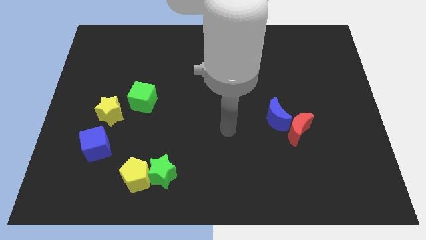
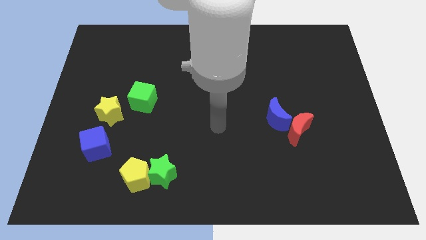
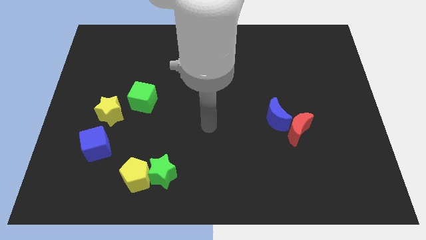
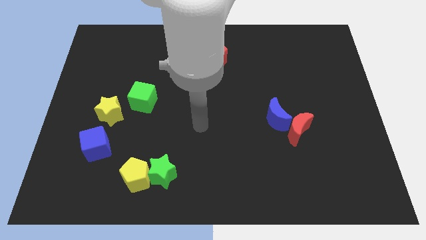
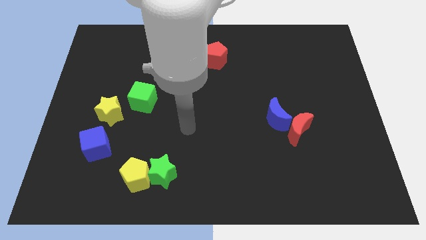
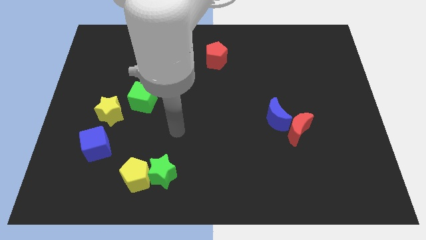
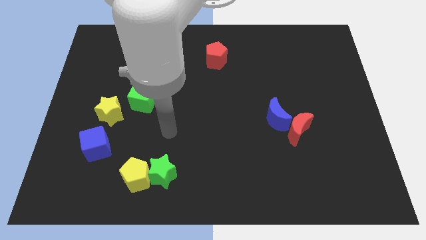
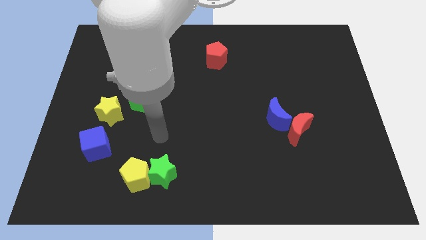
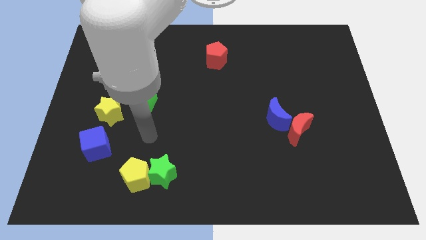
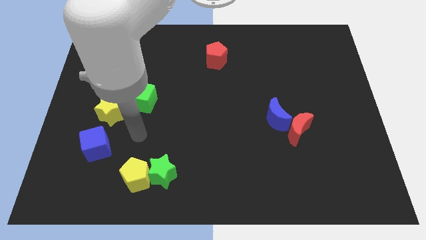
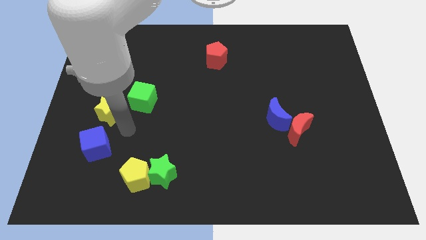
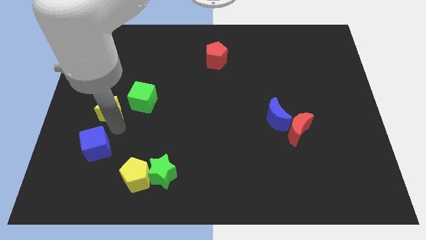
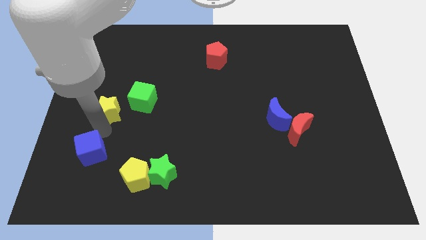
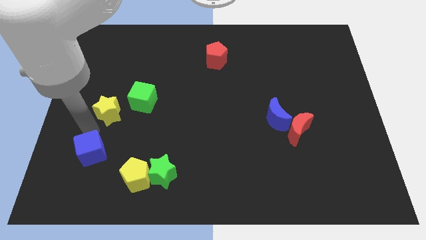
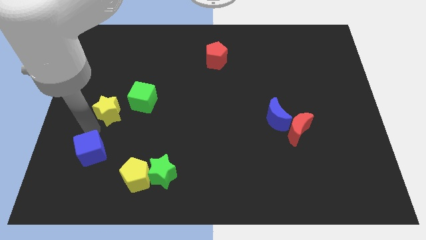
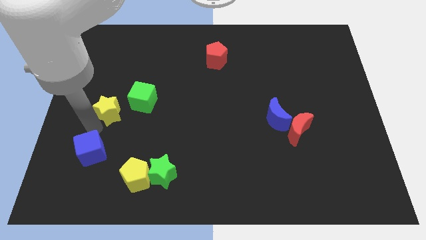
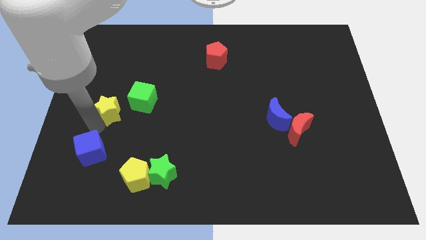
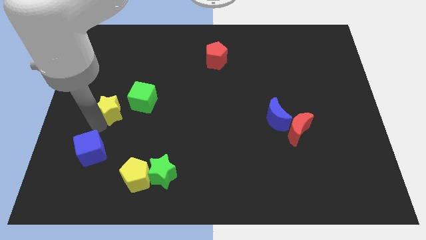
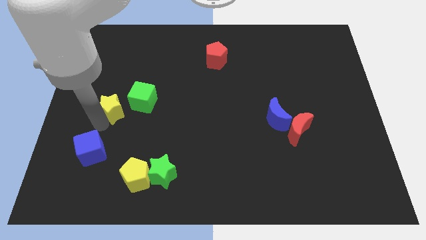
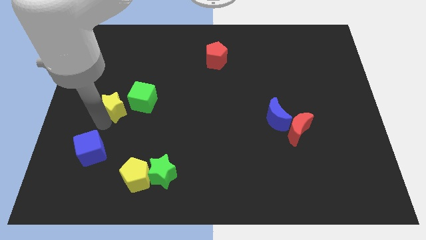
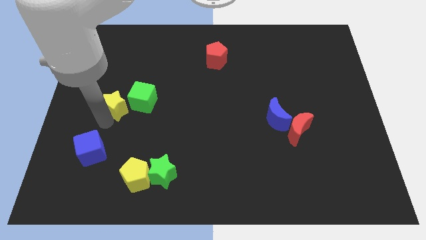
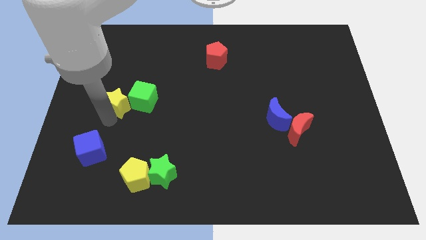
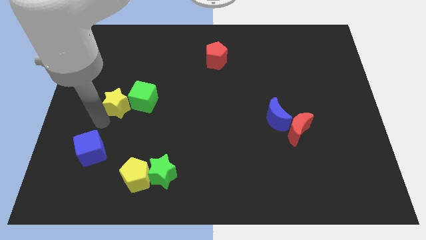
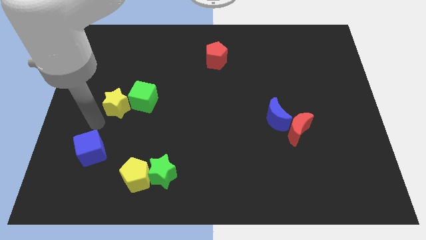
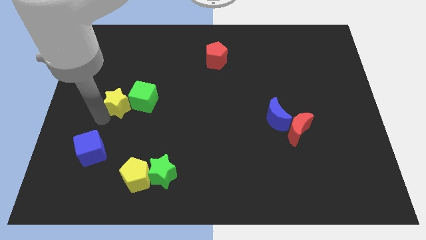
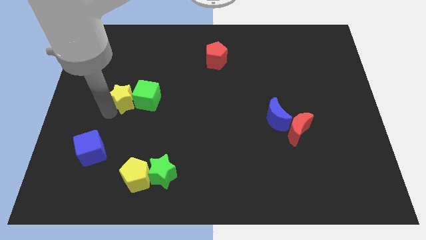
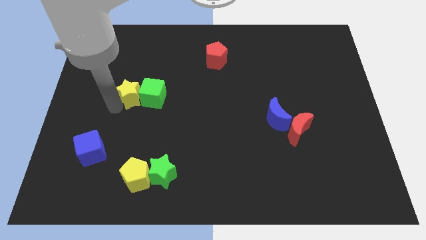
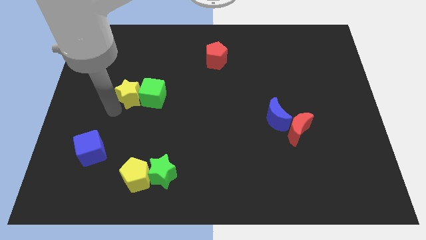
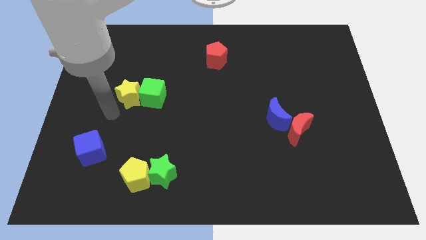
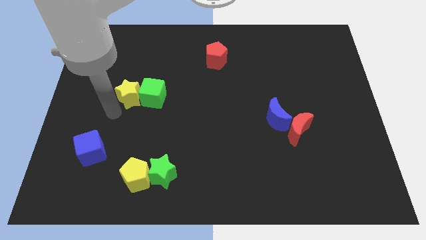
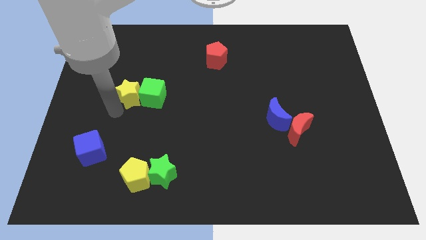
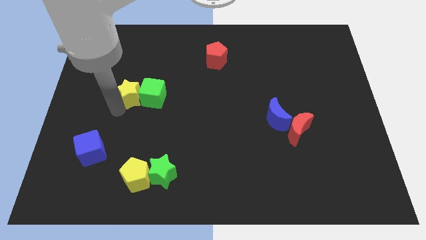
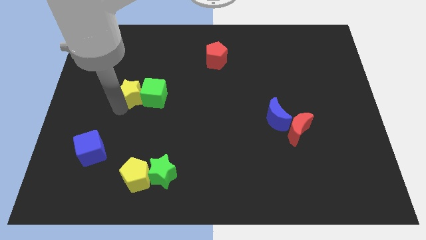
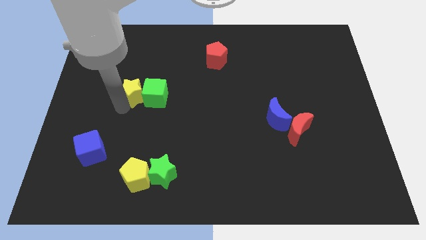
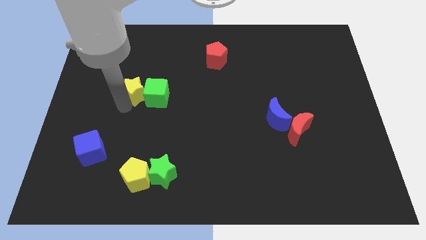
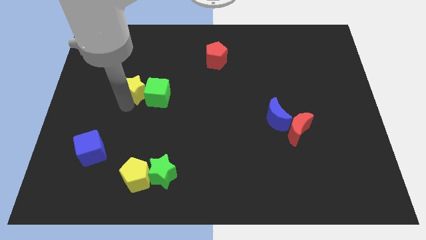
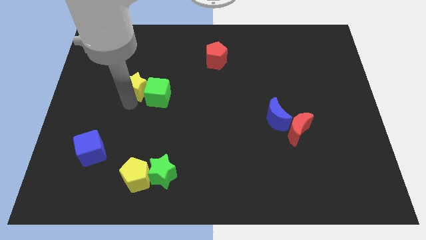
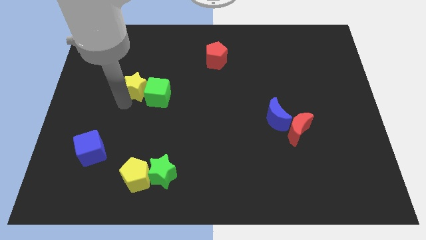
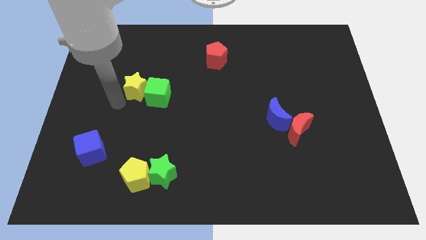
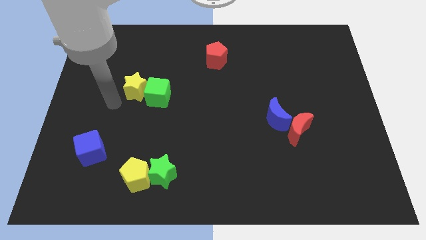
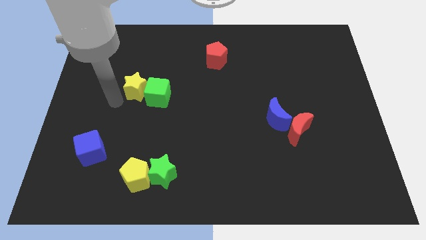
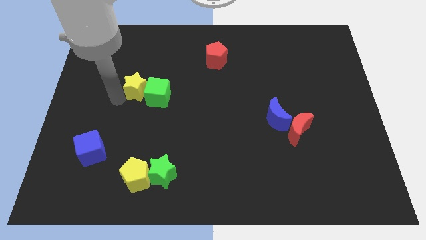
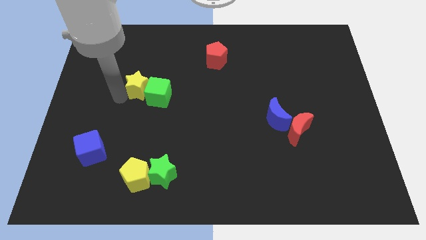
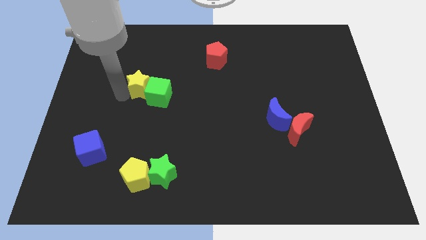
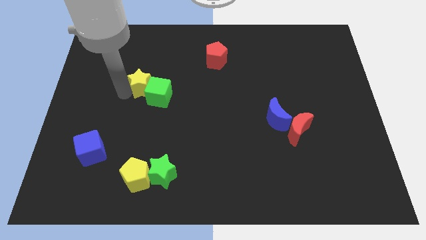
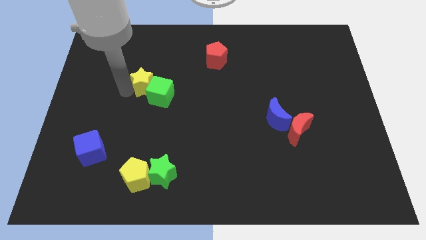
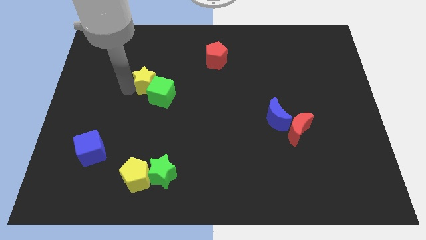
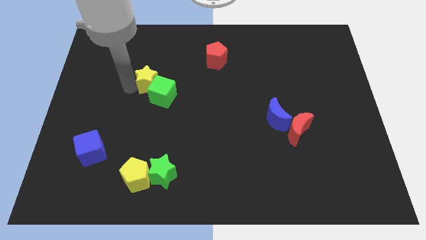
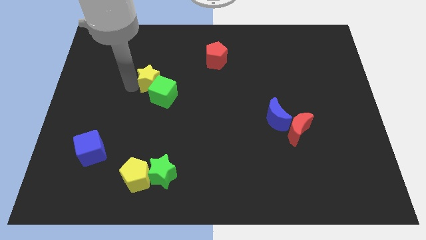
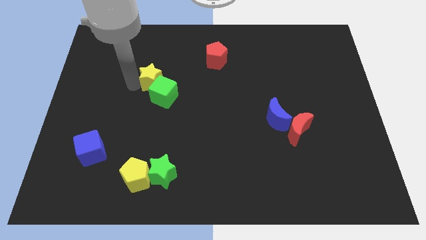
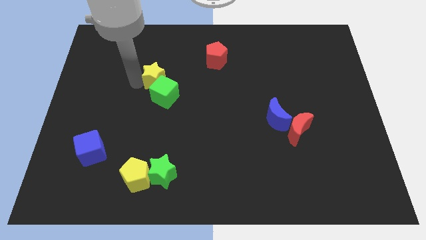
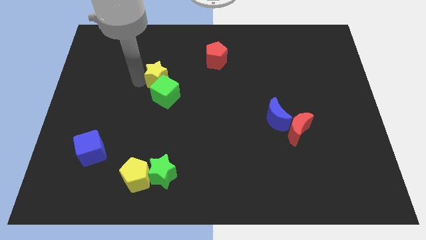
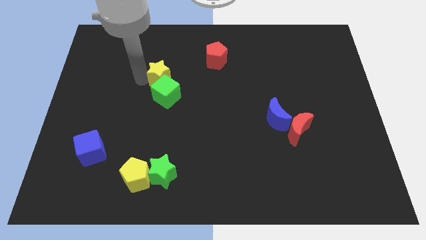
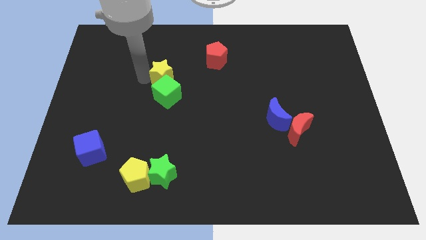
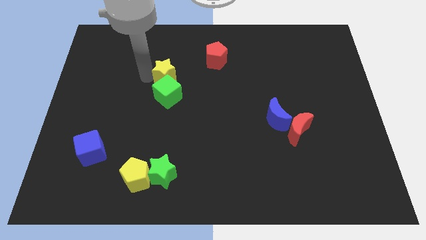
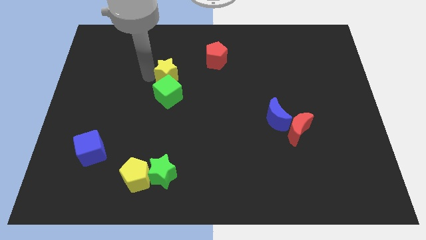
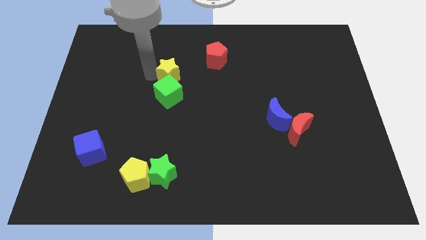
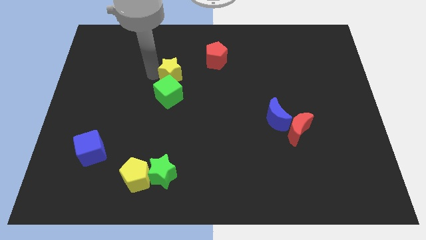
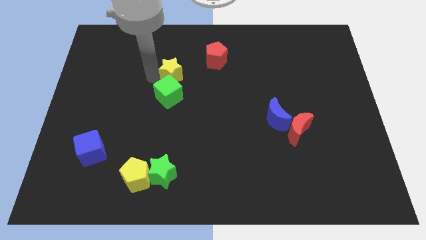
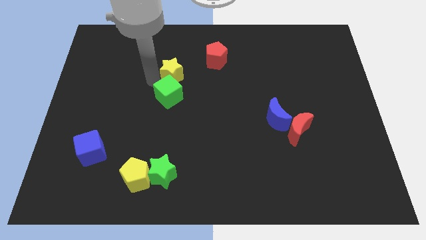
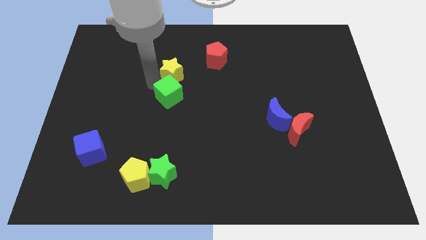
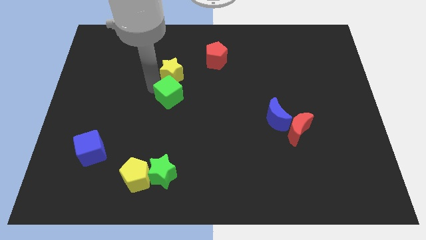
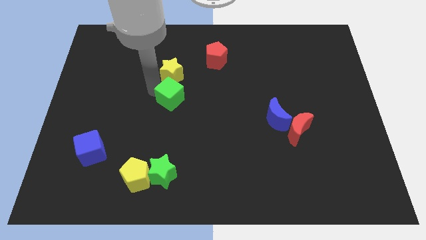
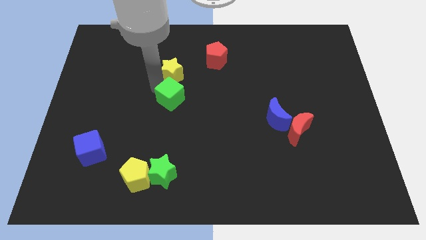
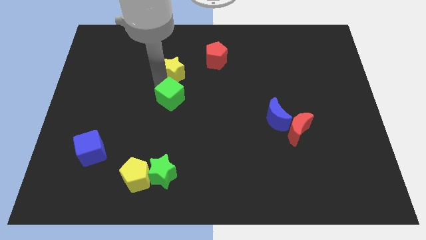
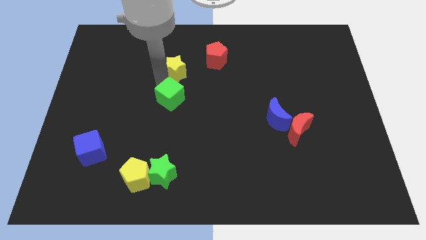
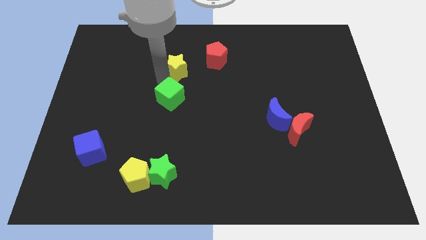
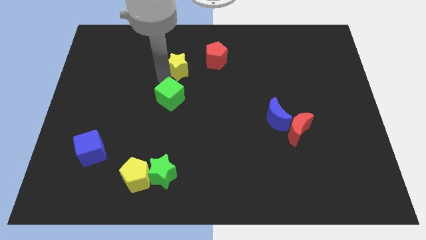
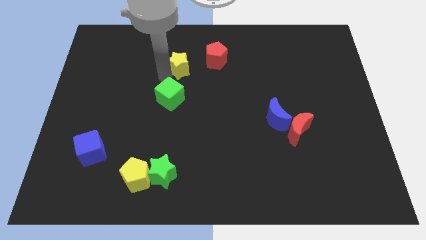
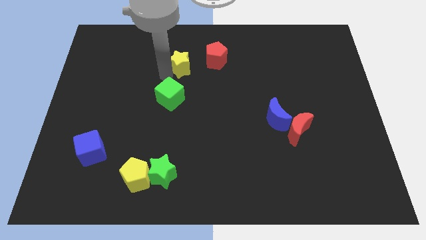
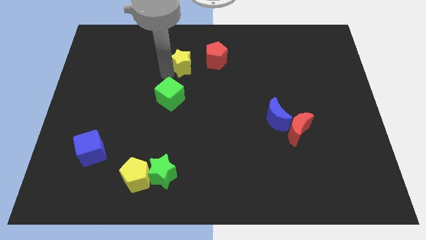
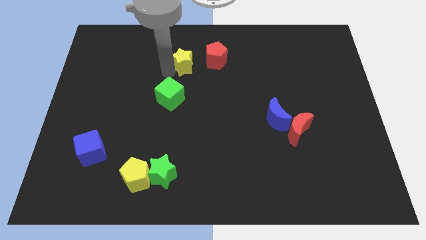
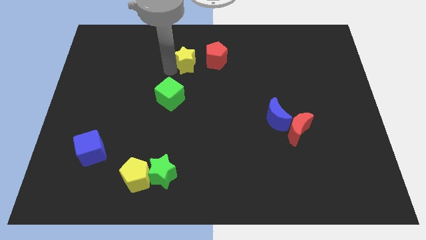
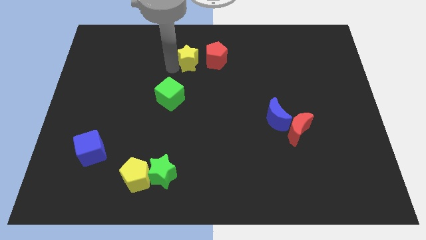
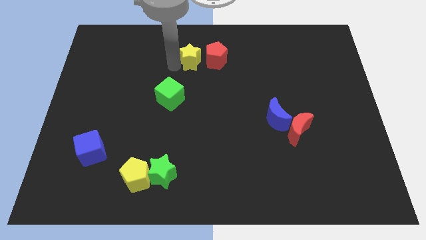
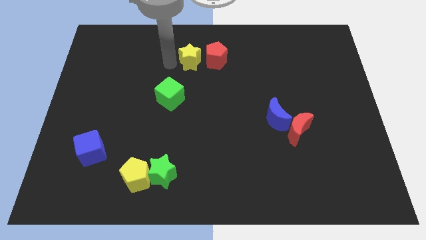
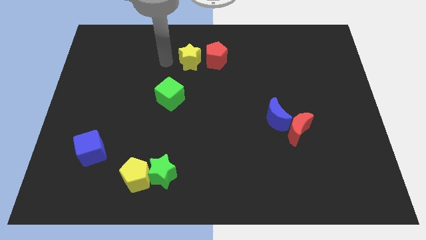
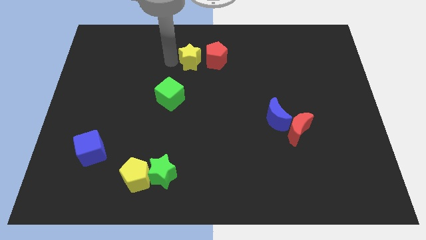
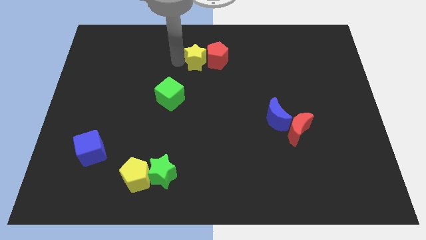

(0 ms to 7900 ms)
push the yellow star next to the red pentagon
